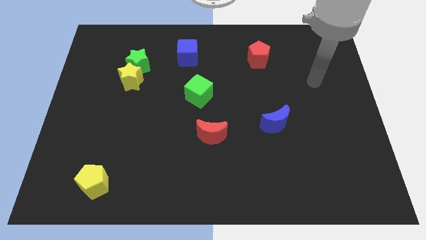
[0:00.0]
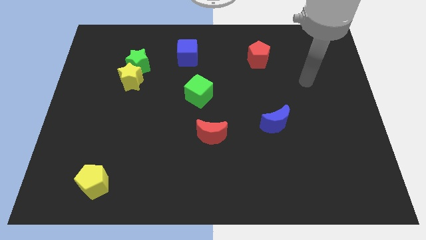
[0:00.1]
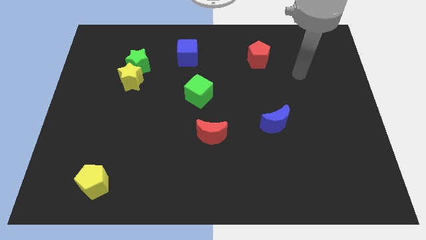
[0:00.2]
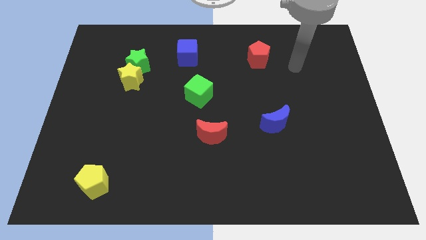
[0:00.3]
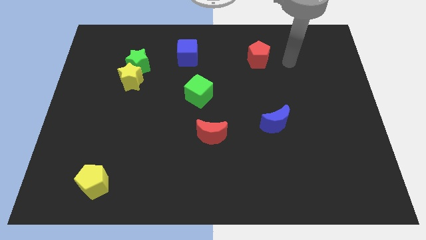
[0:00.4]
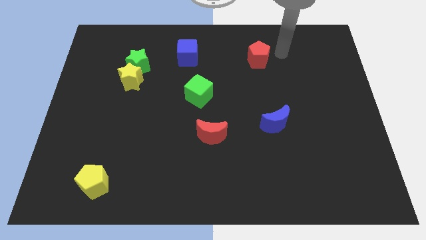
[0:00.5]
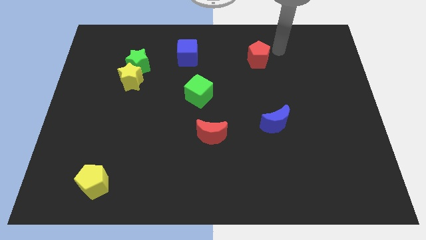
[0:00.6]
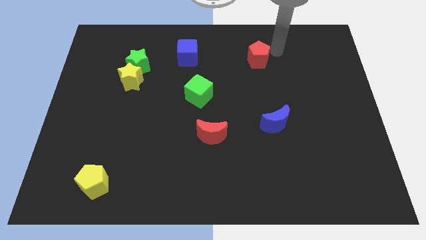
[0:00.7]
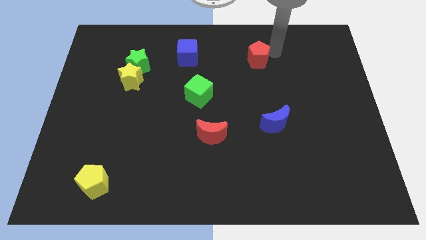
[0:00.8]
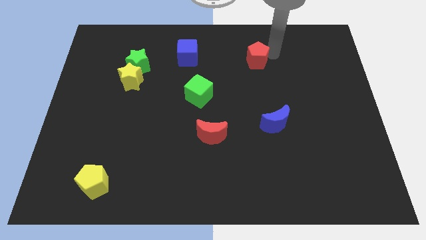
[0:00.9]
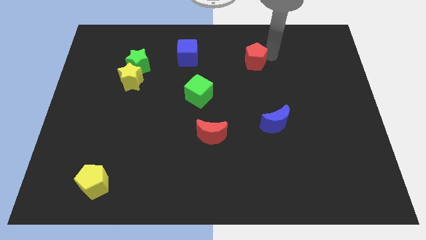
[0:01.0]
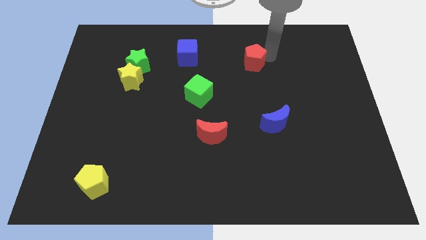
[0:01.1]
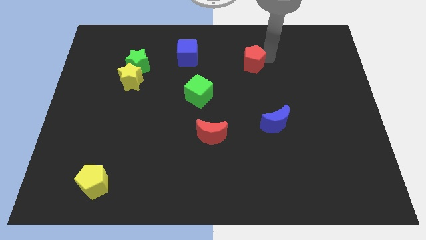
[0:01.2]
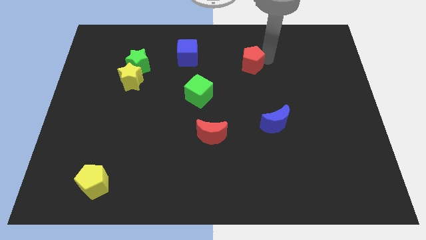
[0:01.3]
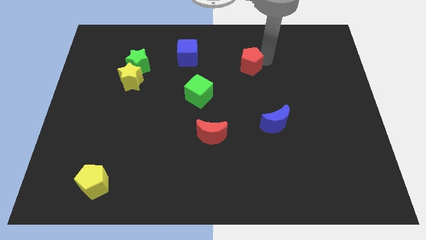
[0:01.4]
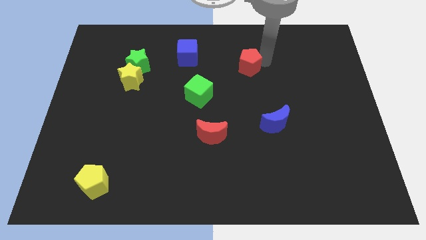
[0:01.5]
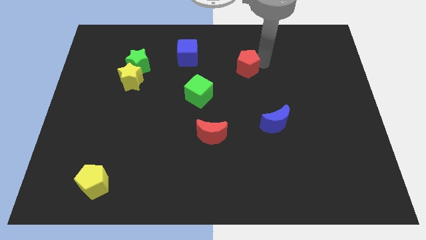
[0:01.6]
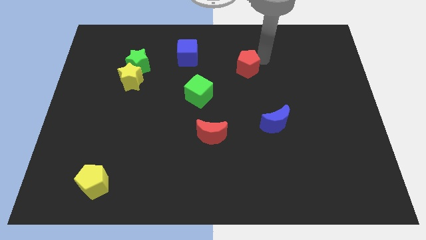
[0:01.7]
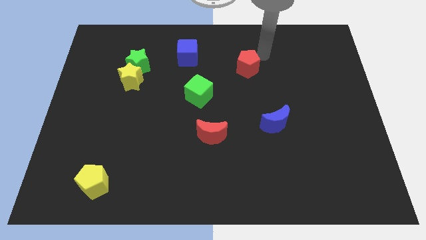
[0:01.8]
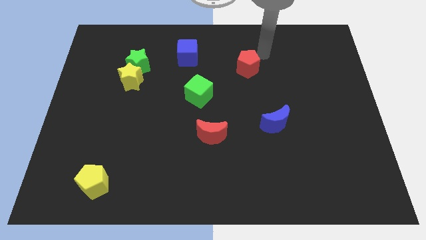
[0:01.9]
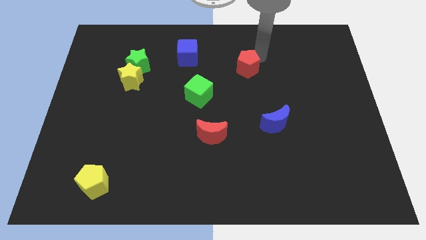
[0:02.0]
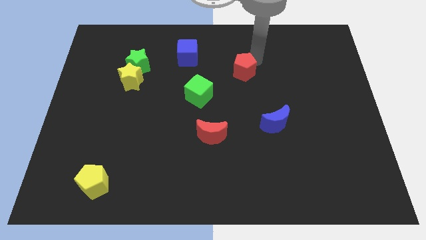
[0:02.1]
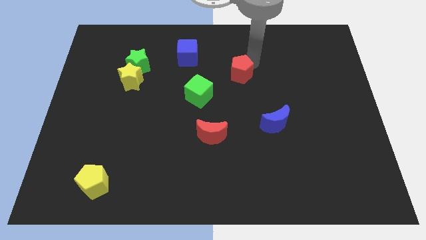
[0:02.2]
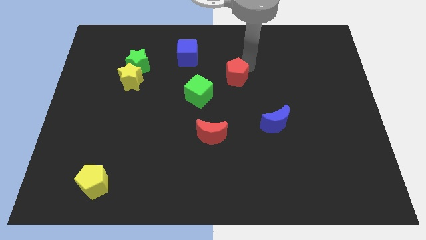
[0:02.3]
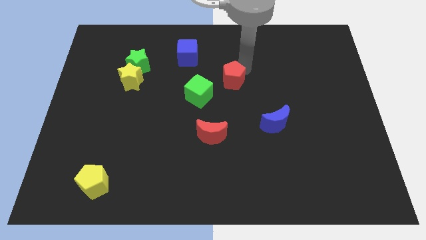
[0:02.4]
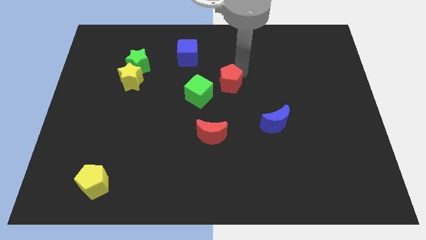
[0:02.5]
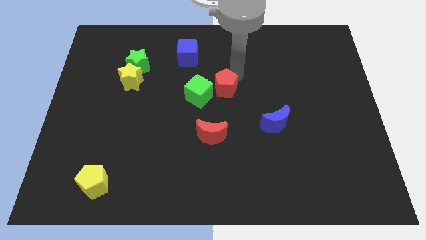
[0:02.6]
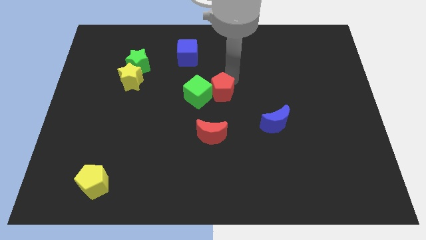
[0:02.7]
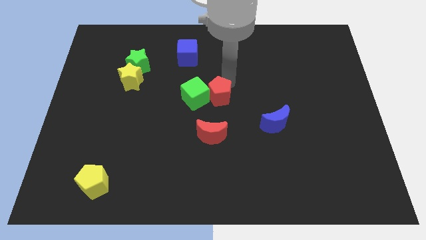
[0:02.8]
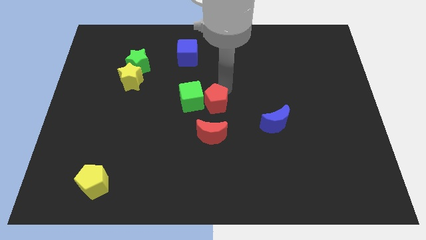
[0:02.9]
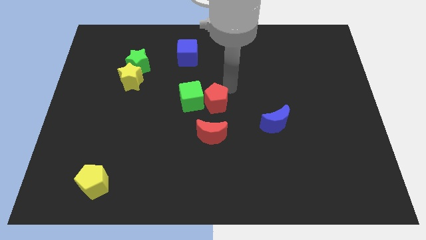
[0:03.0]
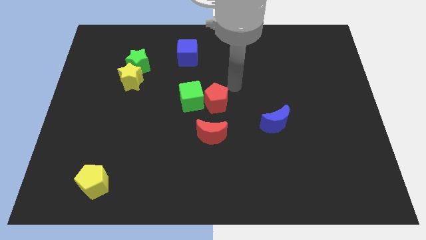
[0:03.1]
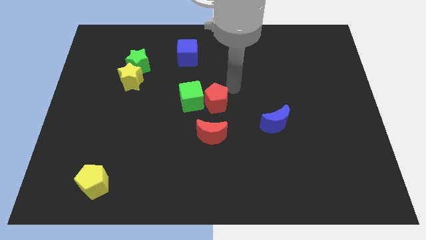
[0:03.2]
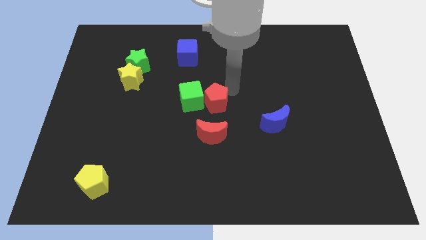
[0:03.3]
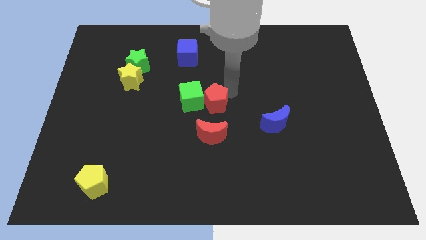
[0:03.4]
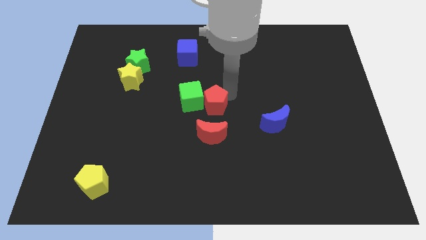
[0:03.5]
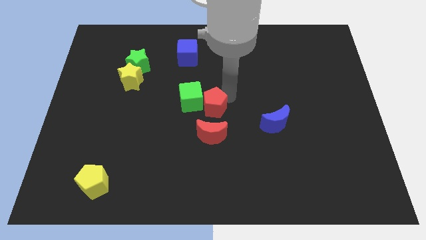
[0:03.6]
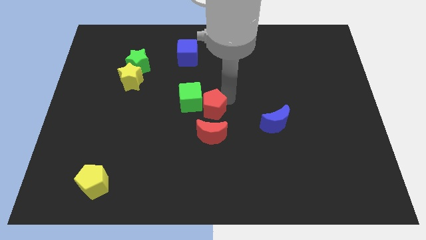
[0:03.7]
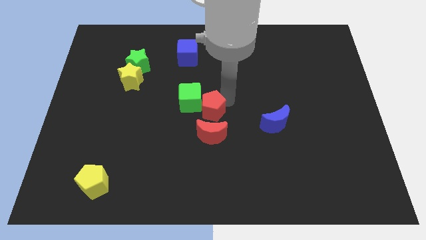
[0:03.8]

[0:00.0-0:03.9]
slide the red pentagon down and left

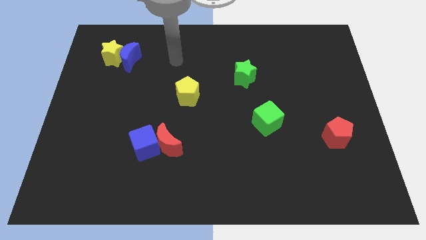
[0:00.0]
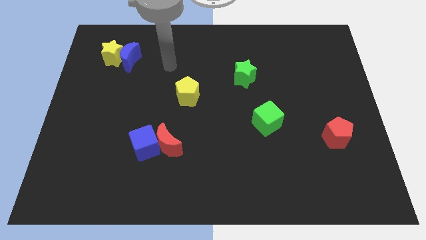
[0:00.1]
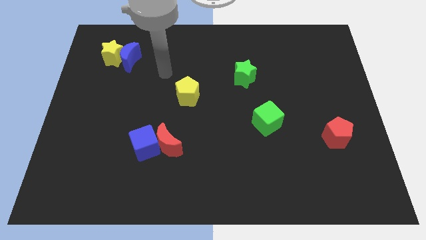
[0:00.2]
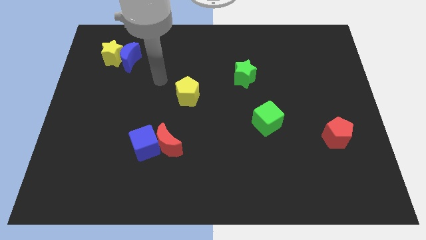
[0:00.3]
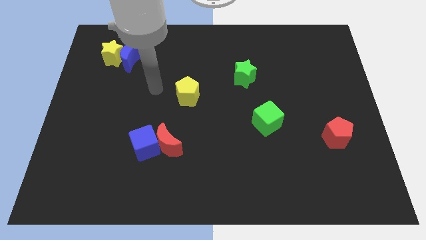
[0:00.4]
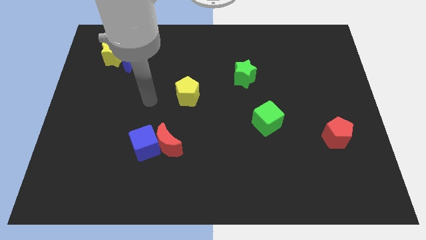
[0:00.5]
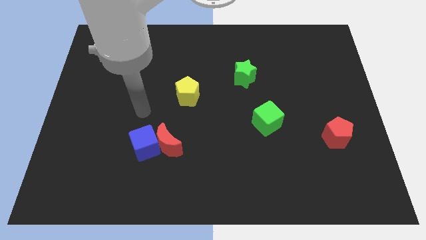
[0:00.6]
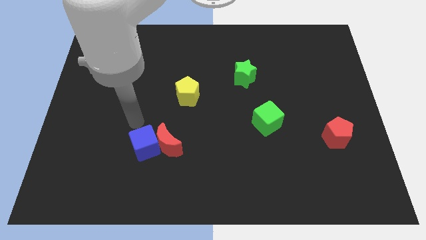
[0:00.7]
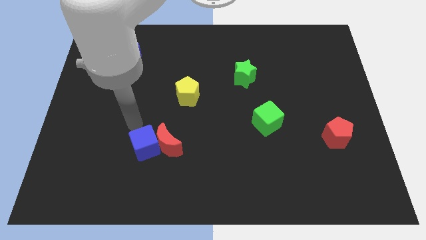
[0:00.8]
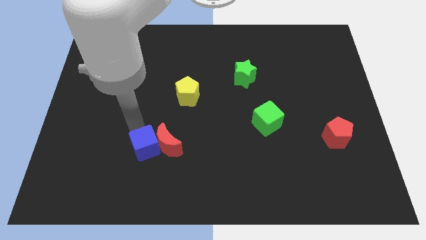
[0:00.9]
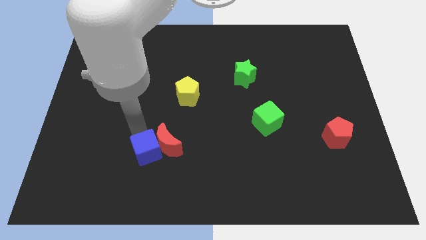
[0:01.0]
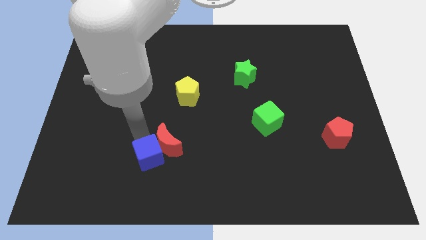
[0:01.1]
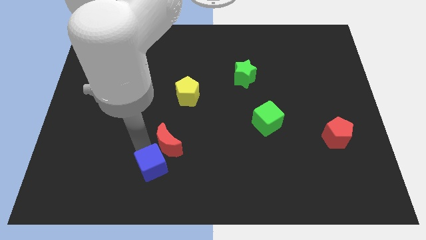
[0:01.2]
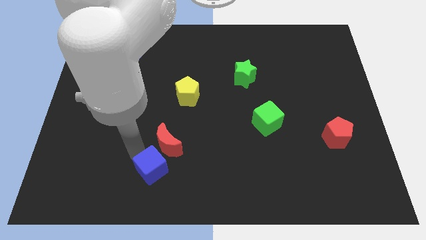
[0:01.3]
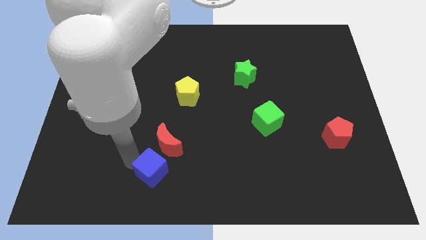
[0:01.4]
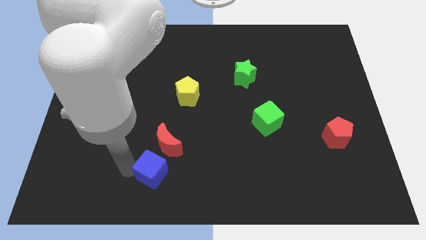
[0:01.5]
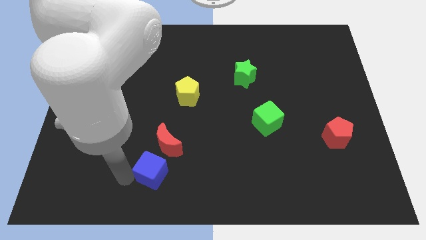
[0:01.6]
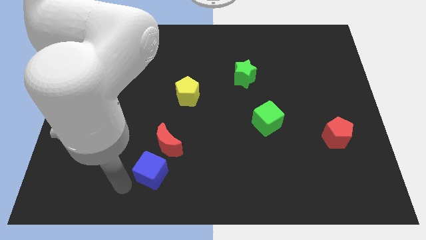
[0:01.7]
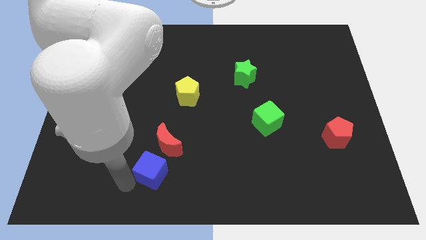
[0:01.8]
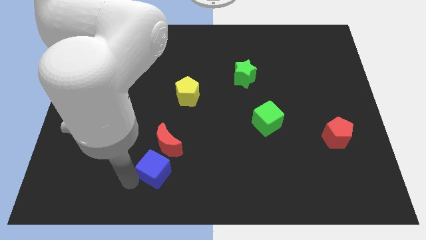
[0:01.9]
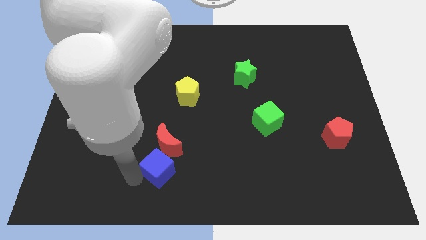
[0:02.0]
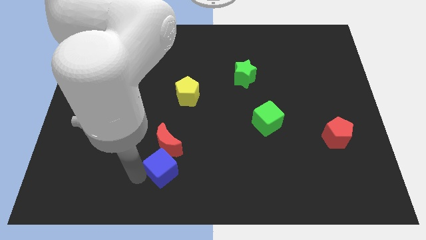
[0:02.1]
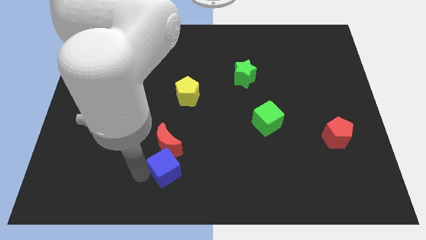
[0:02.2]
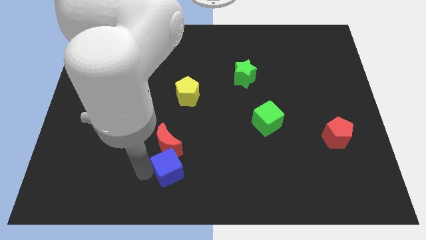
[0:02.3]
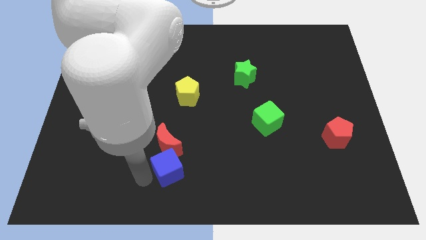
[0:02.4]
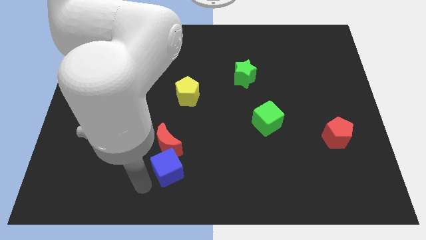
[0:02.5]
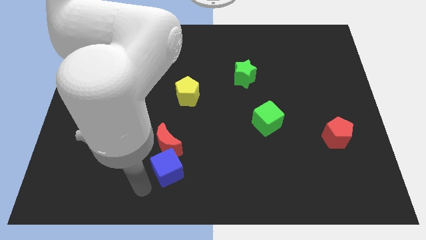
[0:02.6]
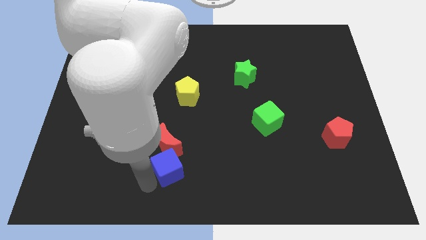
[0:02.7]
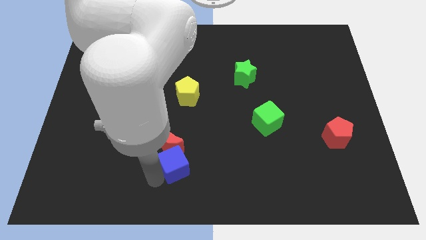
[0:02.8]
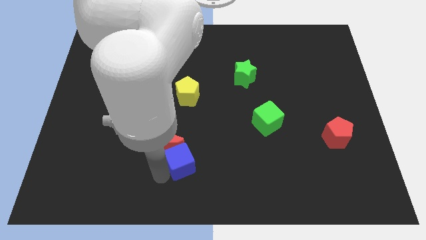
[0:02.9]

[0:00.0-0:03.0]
move the blue cube to the right slightly

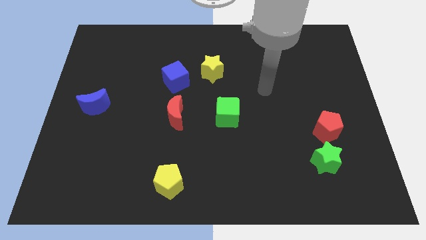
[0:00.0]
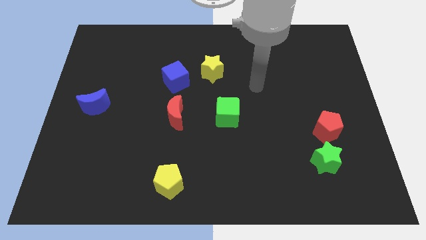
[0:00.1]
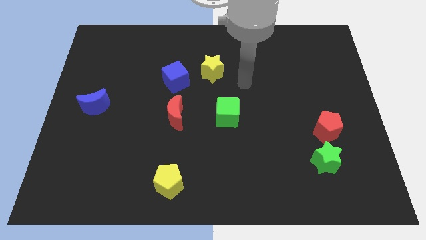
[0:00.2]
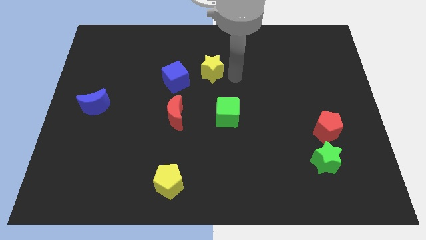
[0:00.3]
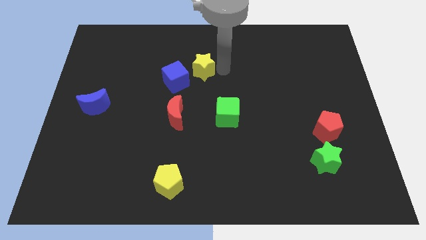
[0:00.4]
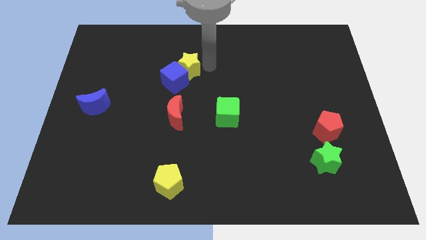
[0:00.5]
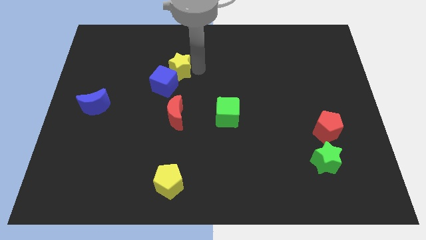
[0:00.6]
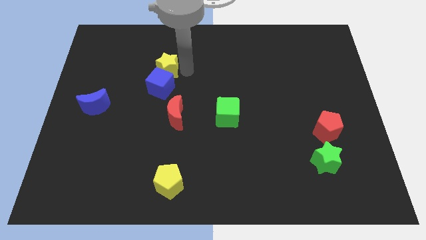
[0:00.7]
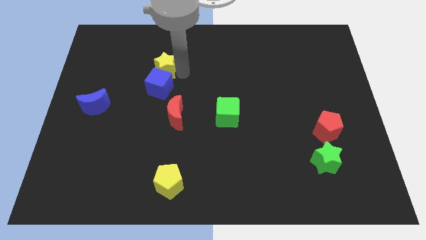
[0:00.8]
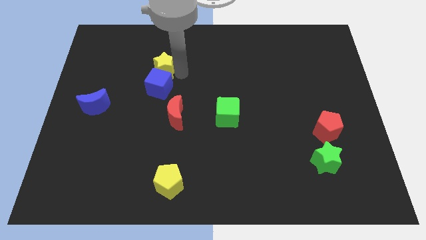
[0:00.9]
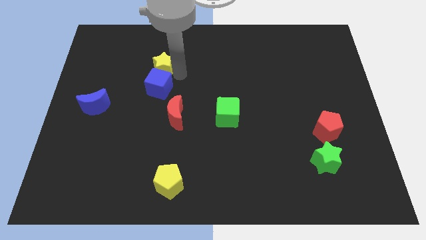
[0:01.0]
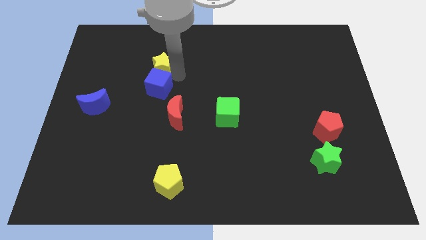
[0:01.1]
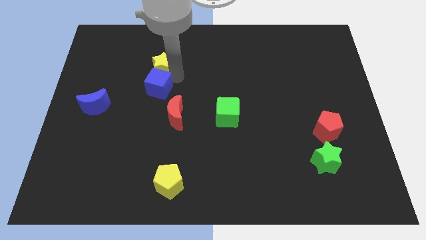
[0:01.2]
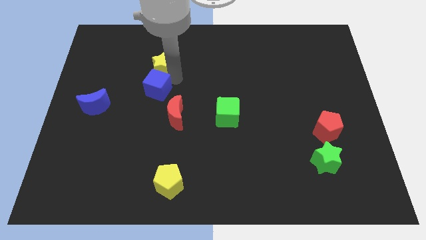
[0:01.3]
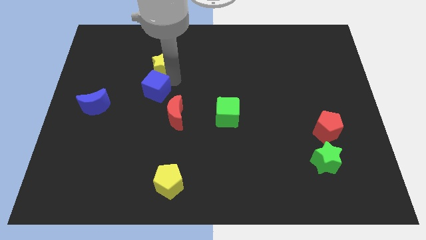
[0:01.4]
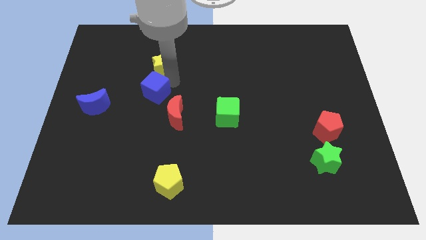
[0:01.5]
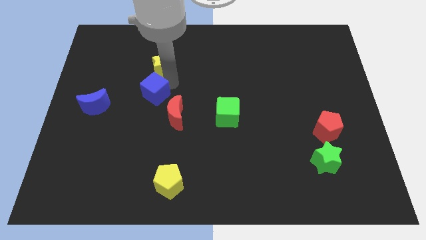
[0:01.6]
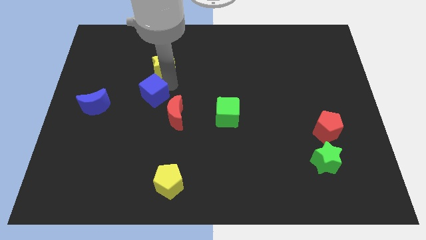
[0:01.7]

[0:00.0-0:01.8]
push the blue cube a bit down and then left
